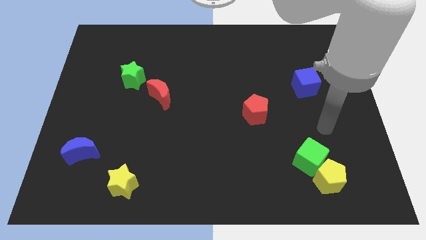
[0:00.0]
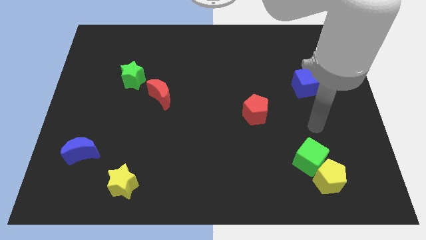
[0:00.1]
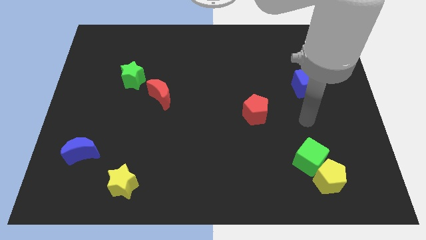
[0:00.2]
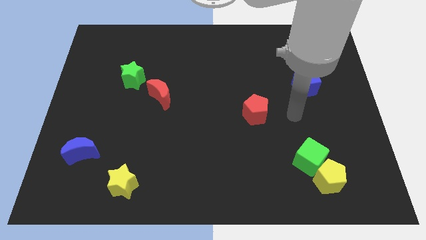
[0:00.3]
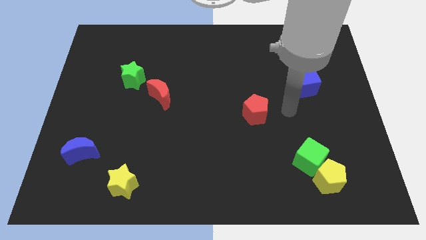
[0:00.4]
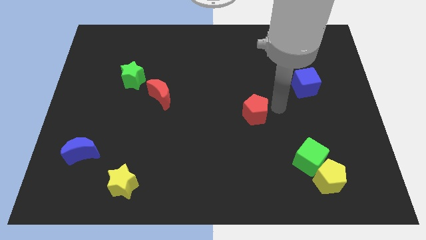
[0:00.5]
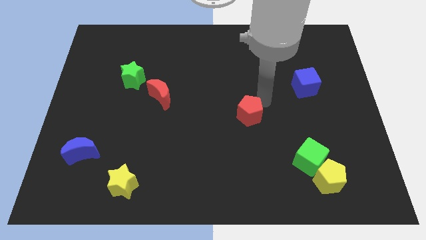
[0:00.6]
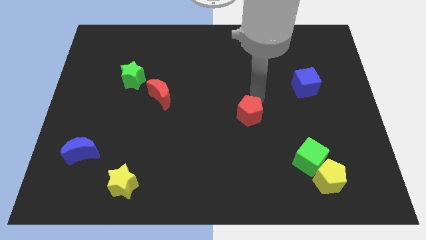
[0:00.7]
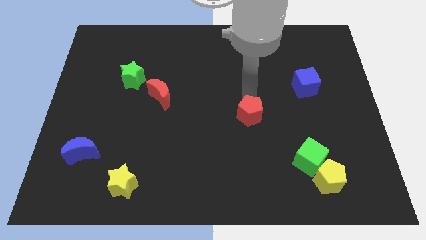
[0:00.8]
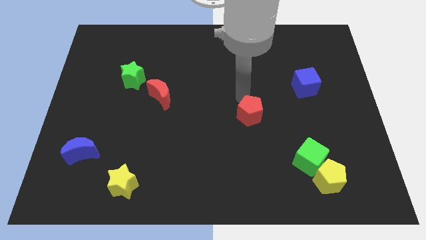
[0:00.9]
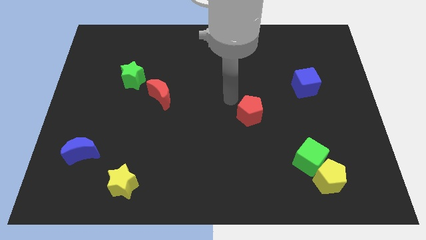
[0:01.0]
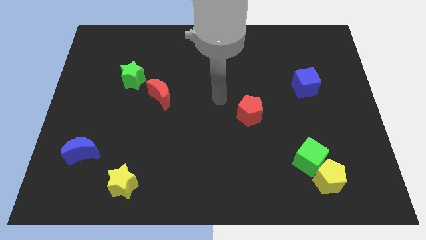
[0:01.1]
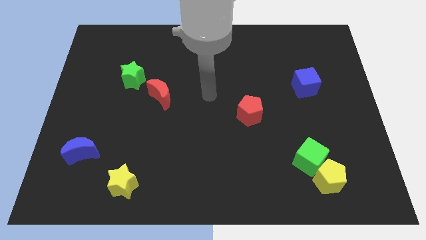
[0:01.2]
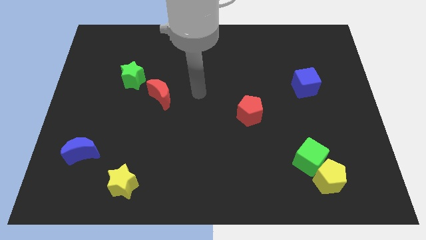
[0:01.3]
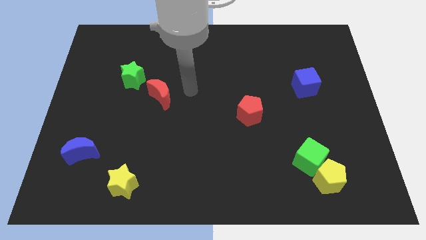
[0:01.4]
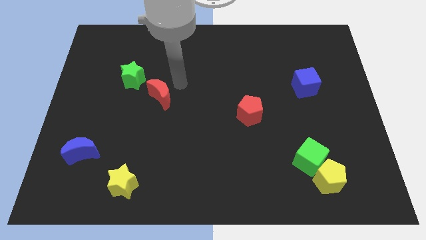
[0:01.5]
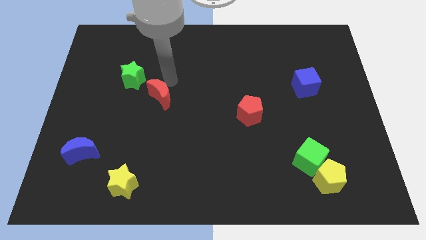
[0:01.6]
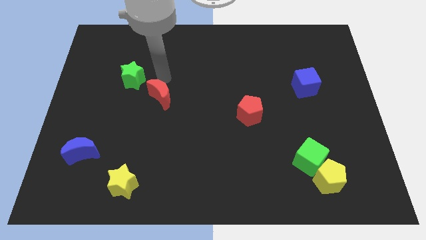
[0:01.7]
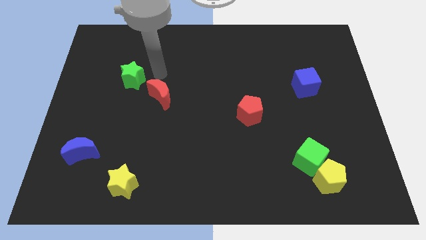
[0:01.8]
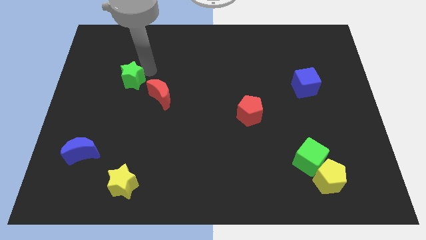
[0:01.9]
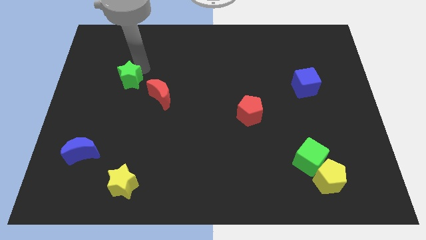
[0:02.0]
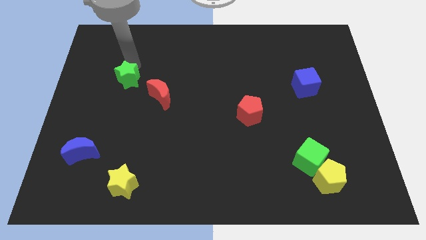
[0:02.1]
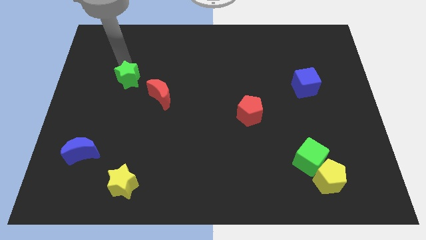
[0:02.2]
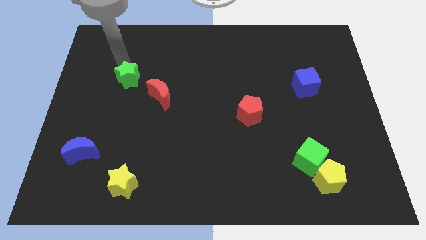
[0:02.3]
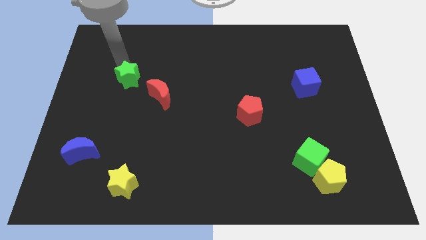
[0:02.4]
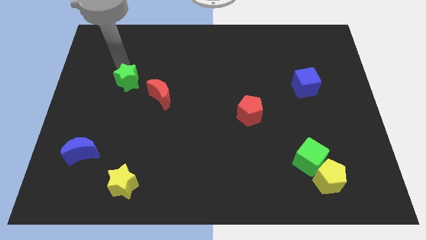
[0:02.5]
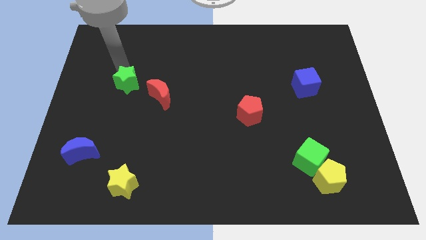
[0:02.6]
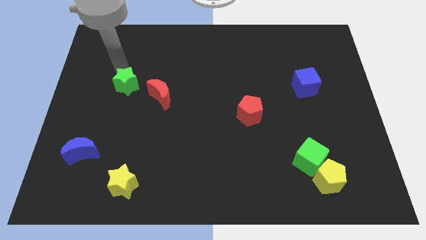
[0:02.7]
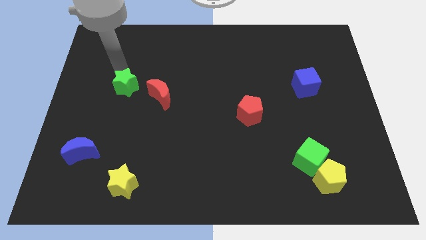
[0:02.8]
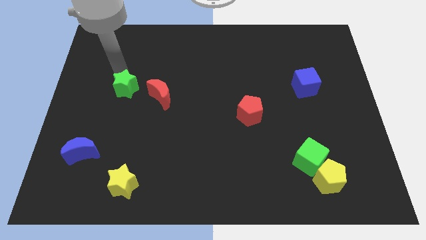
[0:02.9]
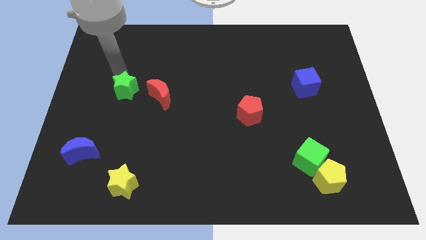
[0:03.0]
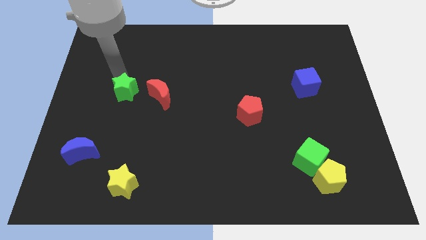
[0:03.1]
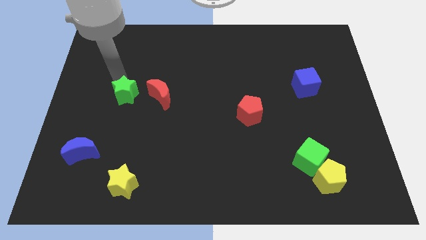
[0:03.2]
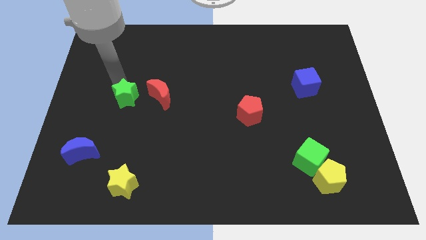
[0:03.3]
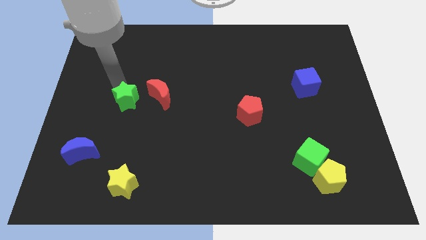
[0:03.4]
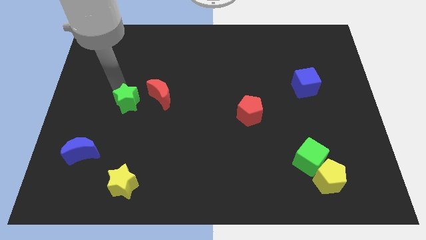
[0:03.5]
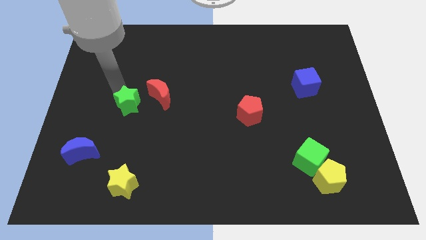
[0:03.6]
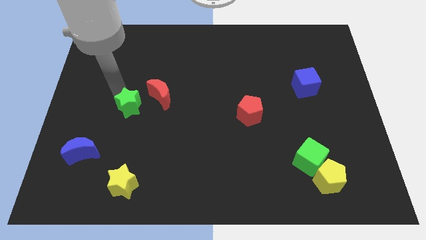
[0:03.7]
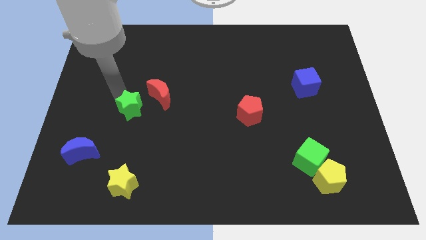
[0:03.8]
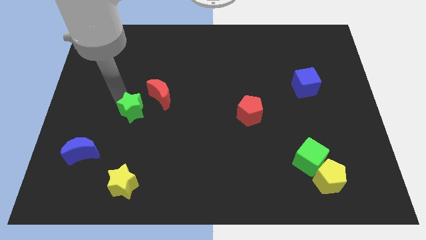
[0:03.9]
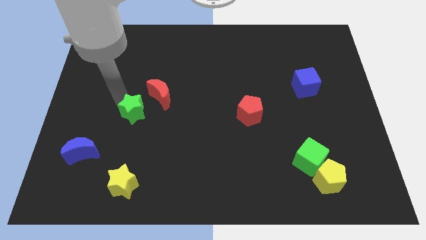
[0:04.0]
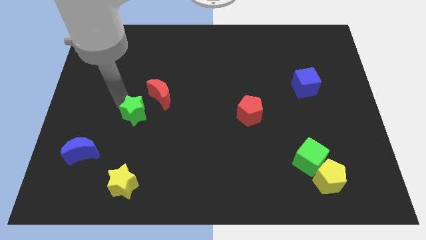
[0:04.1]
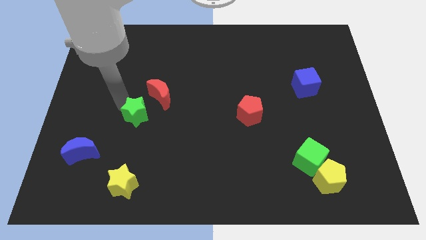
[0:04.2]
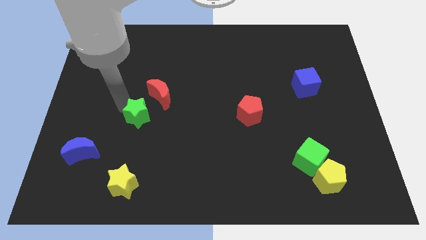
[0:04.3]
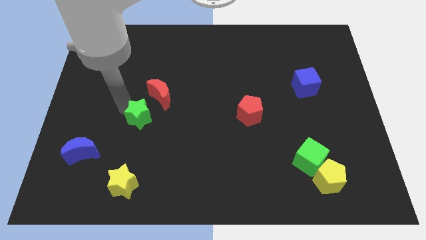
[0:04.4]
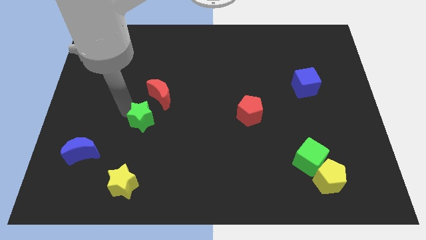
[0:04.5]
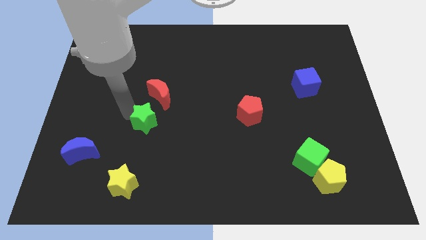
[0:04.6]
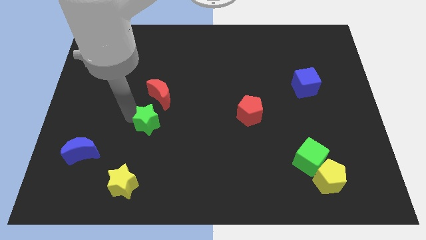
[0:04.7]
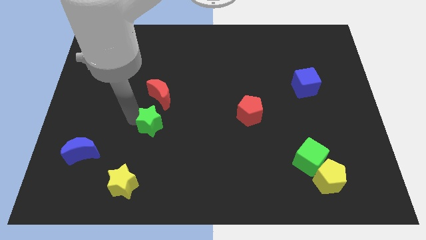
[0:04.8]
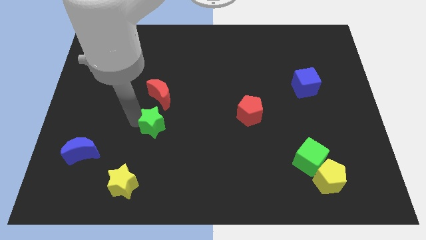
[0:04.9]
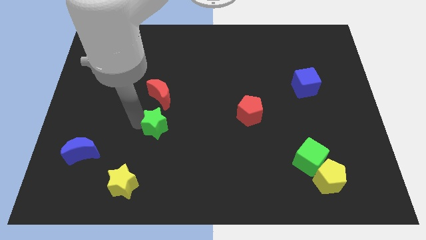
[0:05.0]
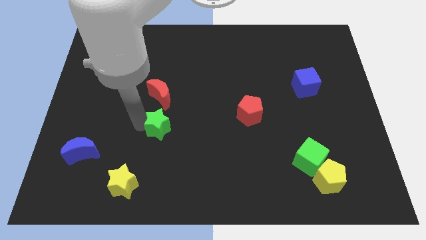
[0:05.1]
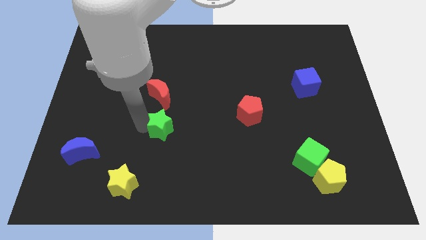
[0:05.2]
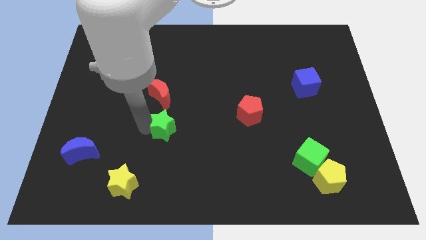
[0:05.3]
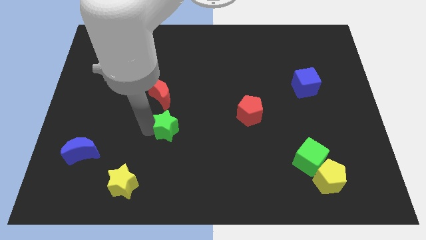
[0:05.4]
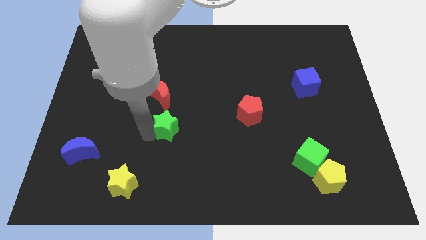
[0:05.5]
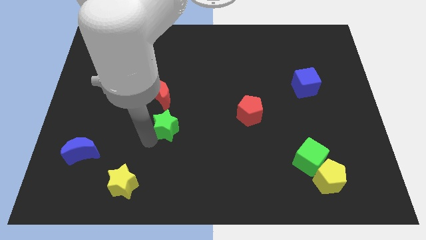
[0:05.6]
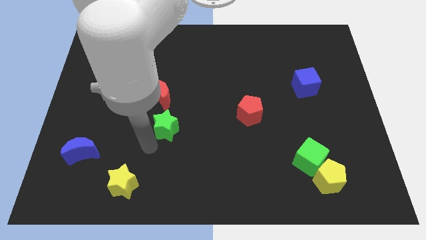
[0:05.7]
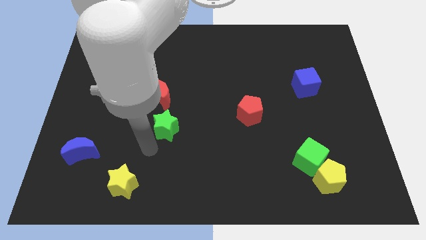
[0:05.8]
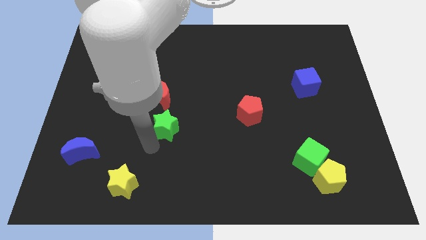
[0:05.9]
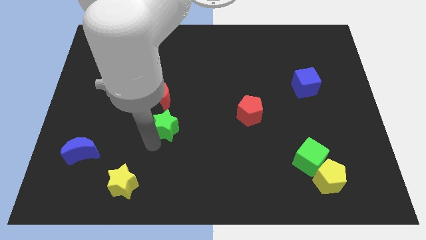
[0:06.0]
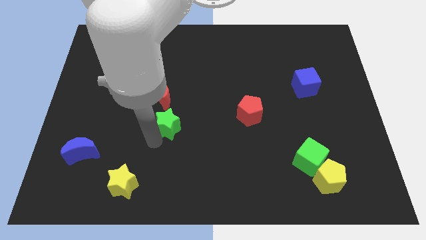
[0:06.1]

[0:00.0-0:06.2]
move the green star to the bottom right side of the red moon
